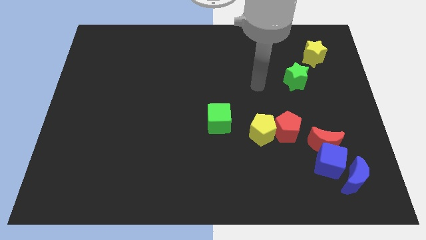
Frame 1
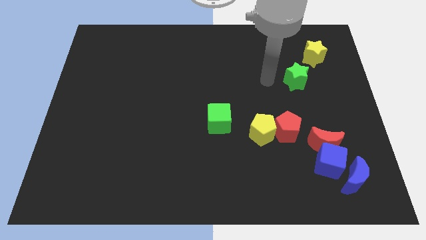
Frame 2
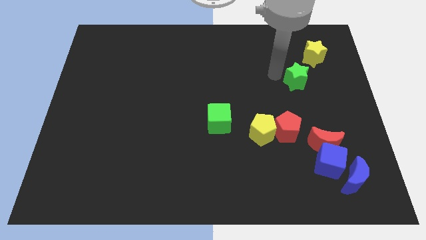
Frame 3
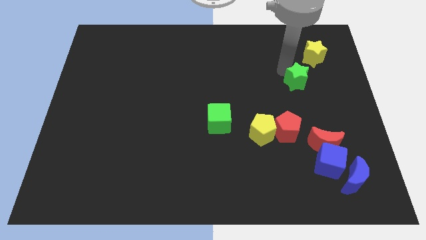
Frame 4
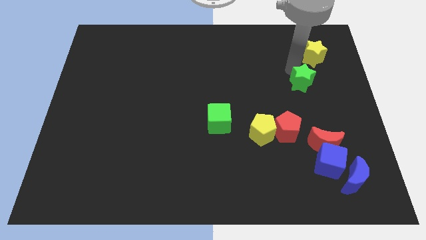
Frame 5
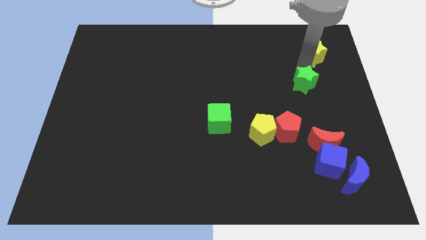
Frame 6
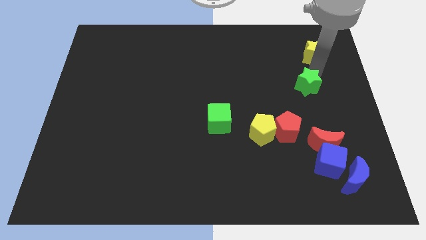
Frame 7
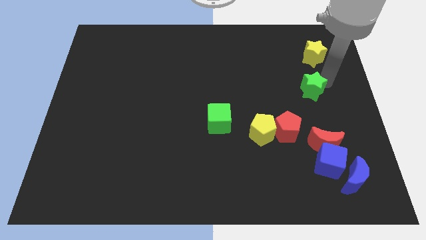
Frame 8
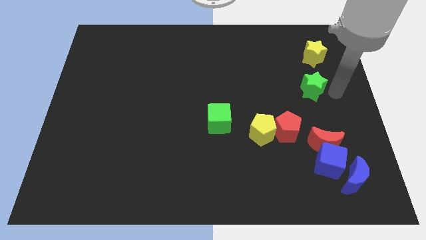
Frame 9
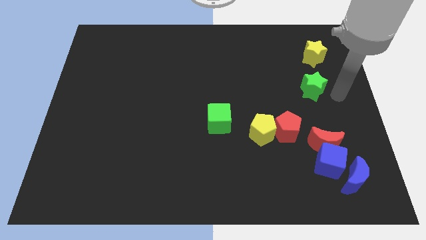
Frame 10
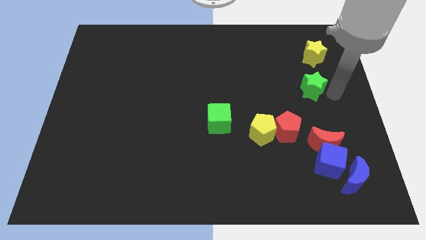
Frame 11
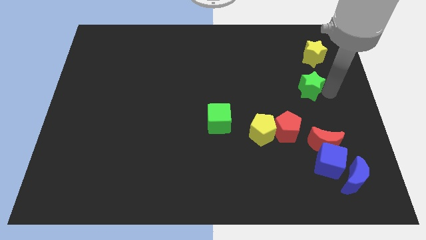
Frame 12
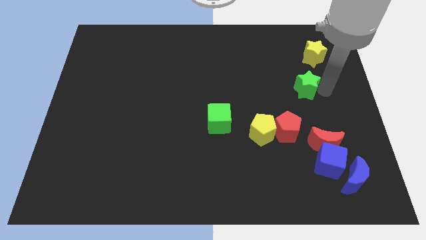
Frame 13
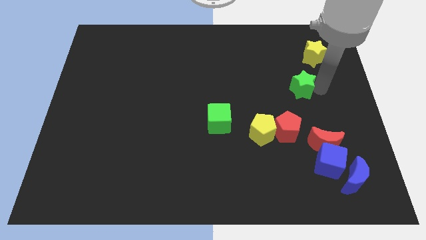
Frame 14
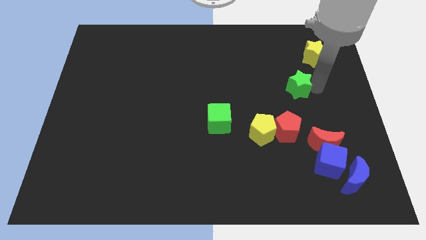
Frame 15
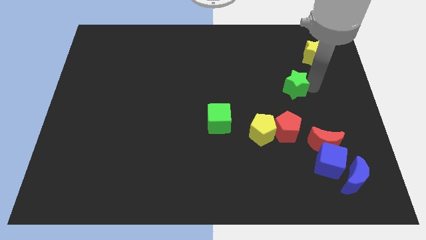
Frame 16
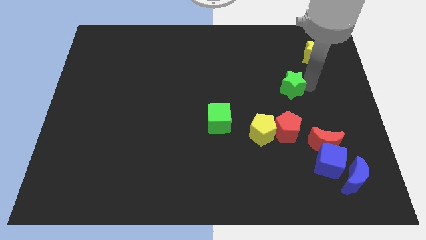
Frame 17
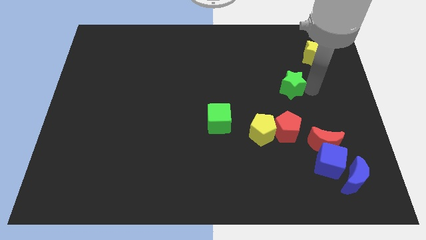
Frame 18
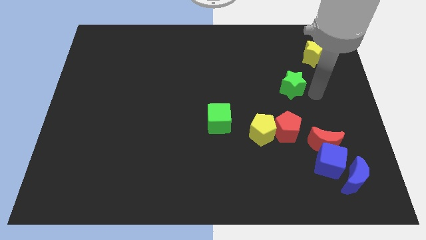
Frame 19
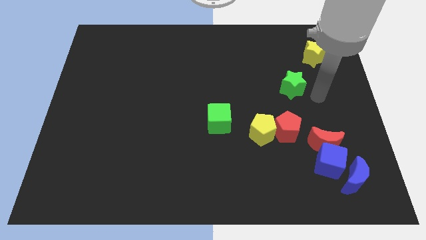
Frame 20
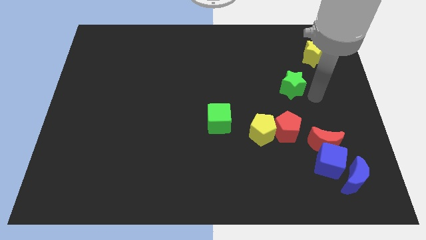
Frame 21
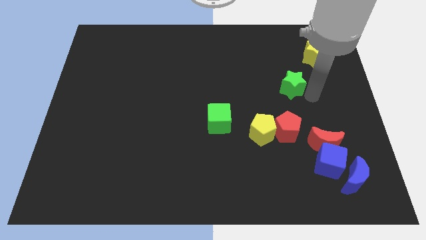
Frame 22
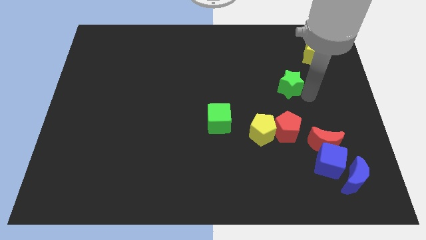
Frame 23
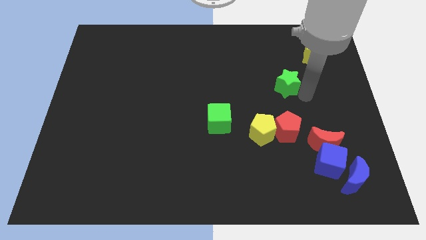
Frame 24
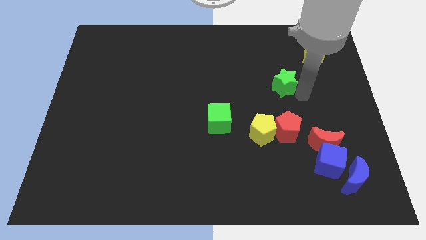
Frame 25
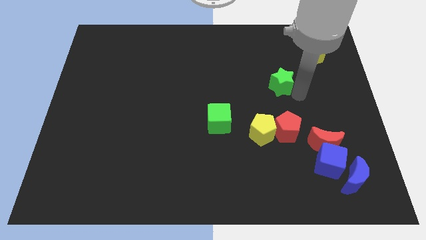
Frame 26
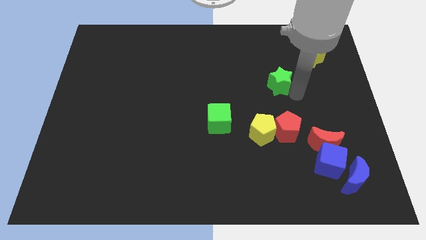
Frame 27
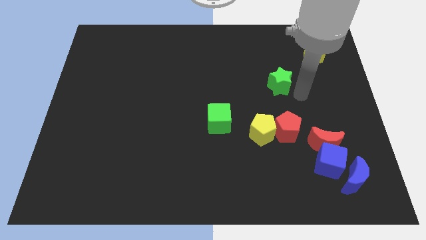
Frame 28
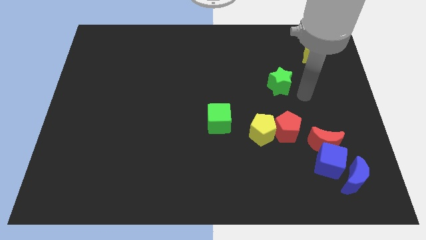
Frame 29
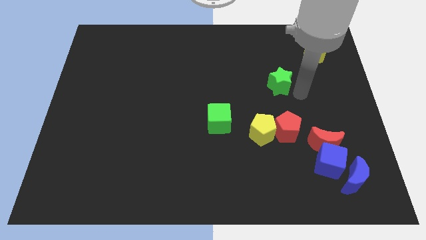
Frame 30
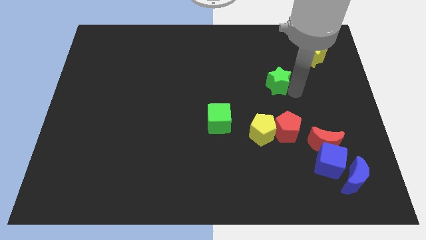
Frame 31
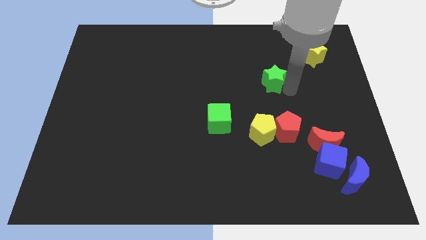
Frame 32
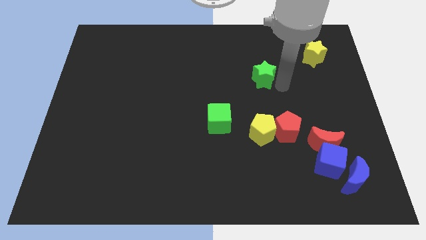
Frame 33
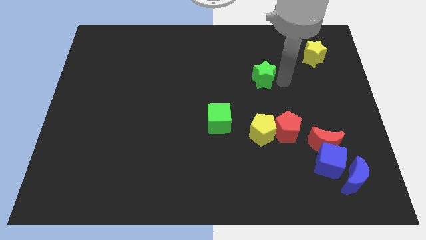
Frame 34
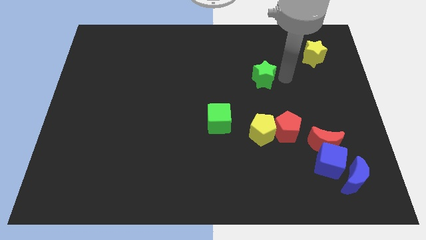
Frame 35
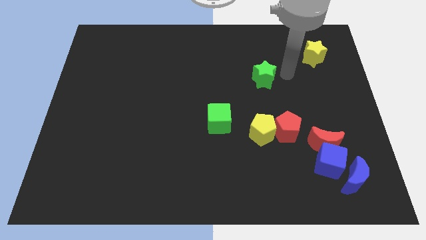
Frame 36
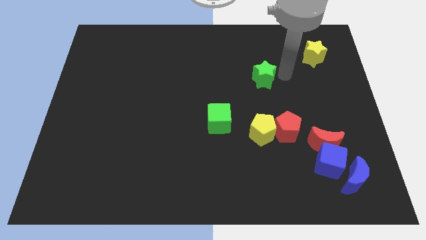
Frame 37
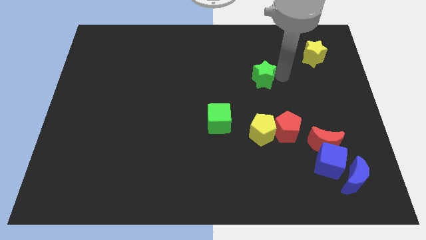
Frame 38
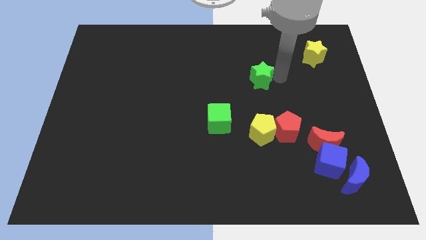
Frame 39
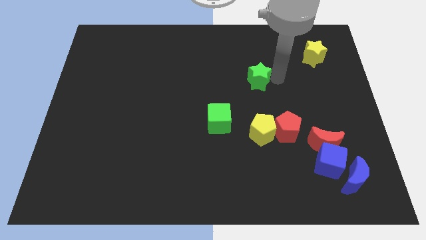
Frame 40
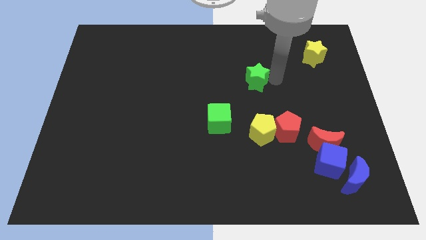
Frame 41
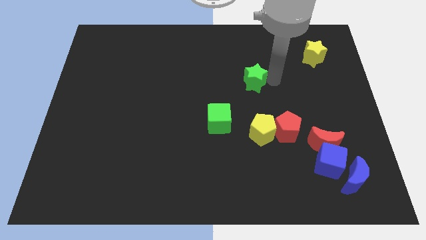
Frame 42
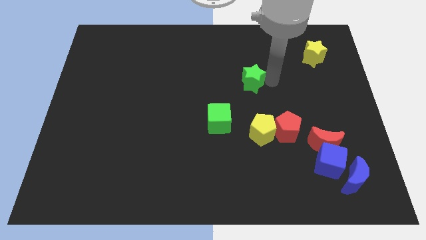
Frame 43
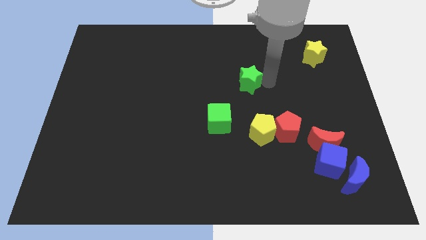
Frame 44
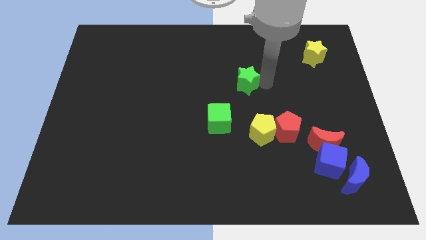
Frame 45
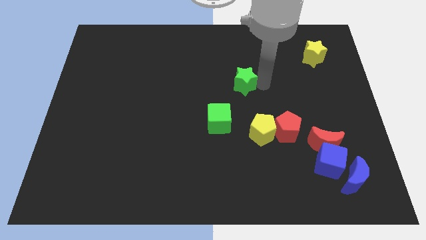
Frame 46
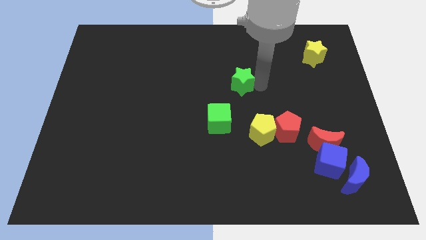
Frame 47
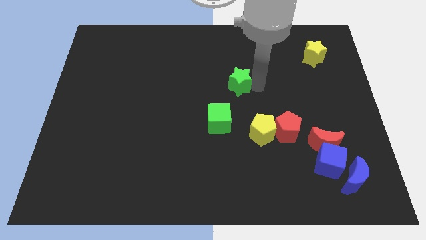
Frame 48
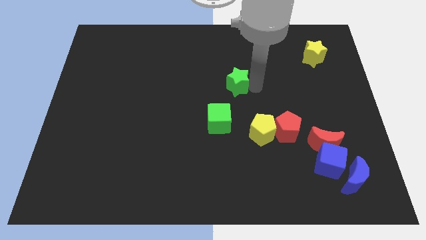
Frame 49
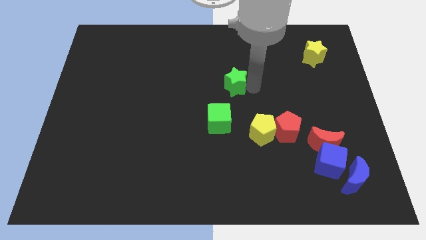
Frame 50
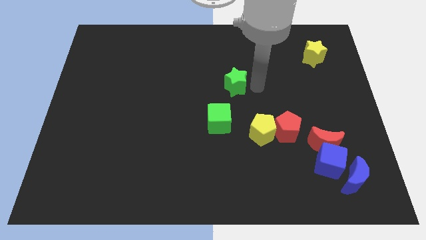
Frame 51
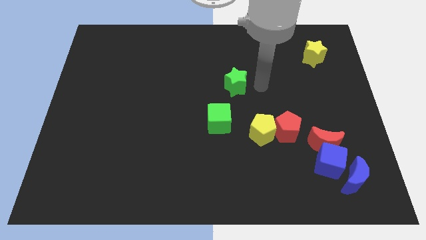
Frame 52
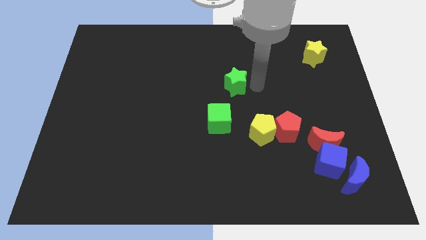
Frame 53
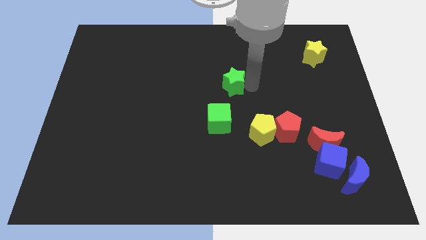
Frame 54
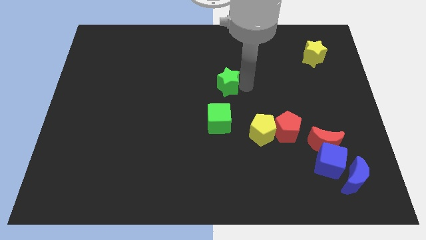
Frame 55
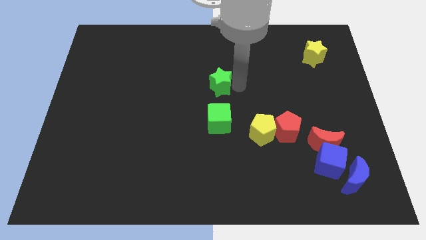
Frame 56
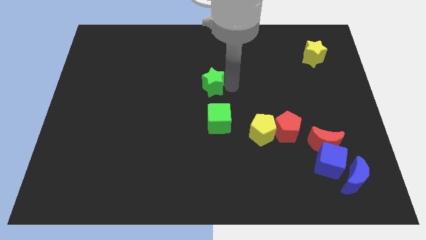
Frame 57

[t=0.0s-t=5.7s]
push the green star to the left

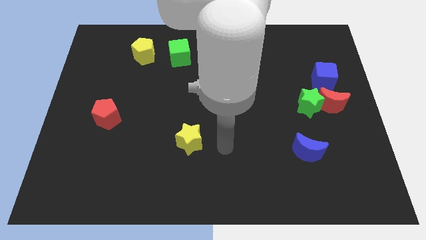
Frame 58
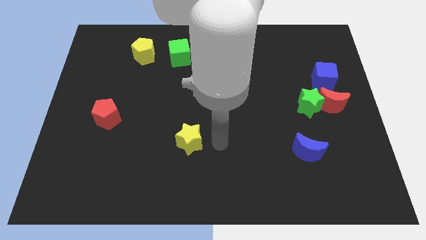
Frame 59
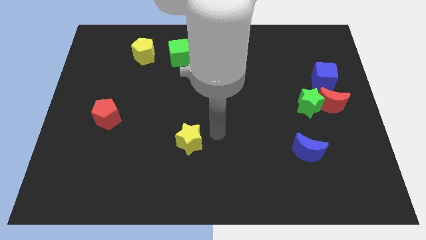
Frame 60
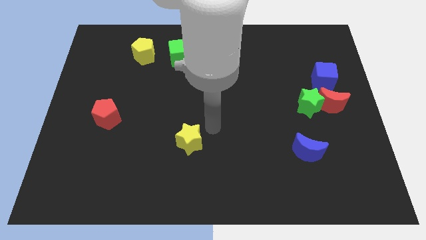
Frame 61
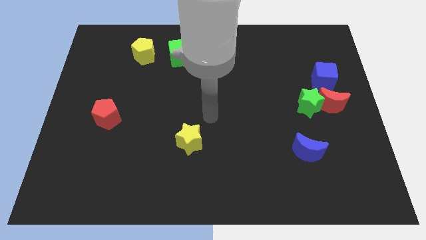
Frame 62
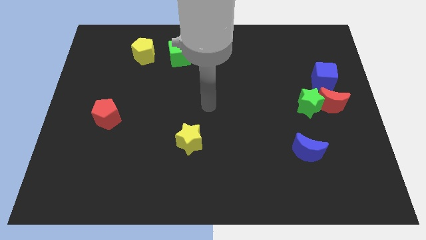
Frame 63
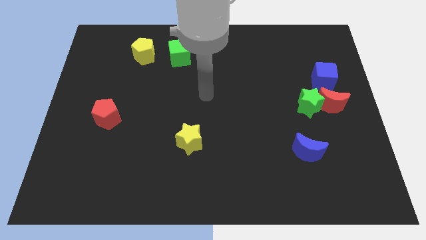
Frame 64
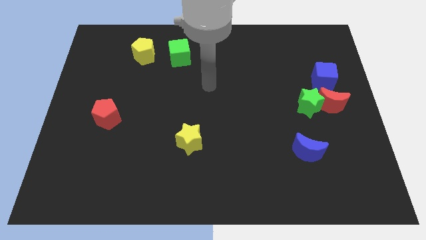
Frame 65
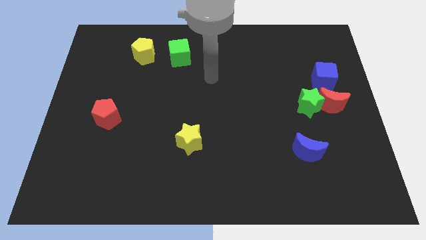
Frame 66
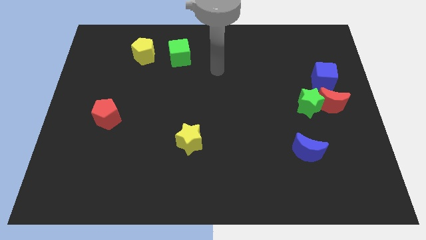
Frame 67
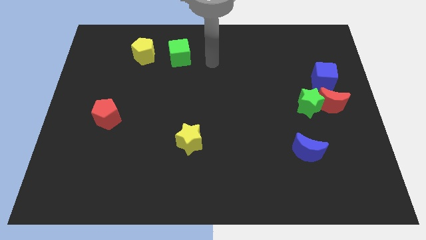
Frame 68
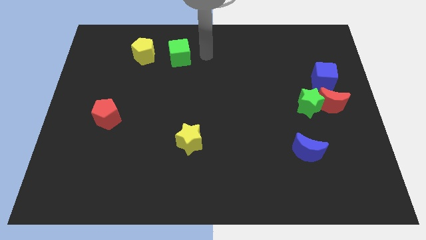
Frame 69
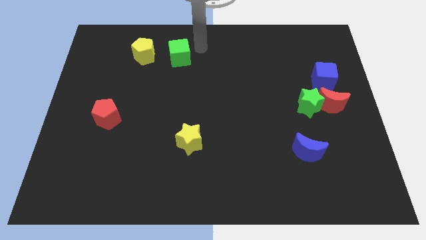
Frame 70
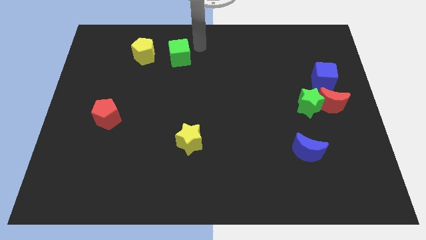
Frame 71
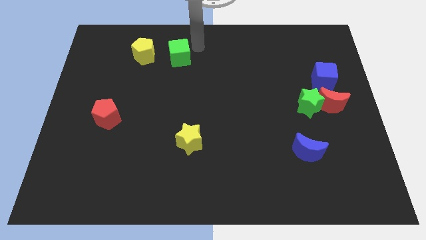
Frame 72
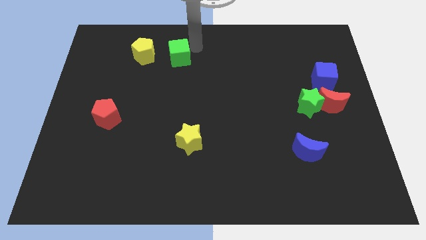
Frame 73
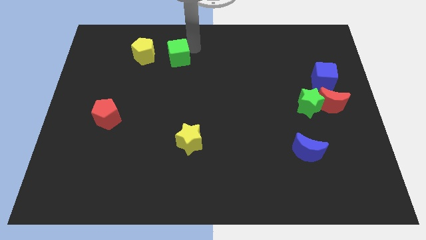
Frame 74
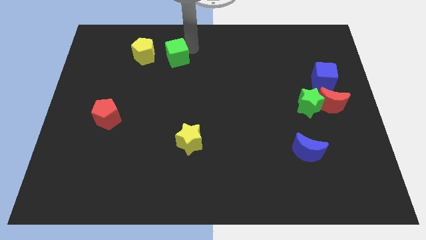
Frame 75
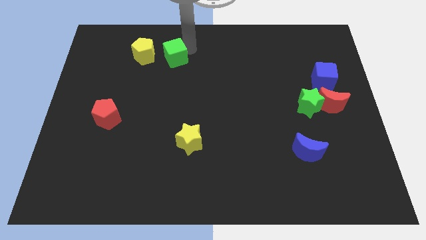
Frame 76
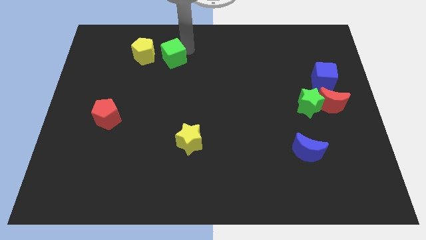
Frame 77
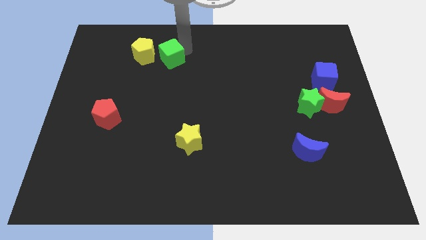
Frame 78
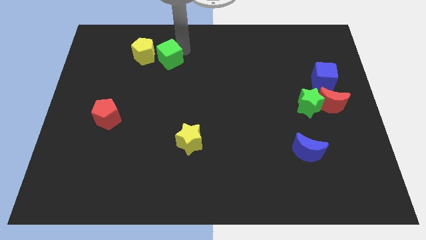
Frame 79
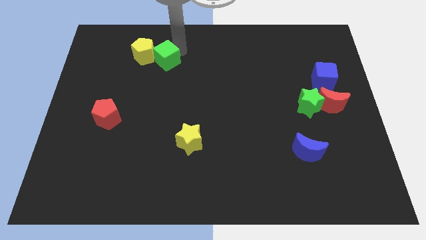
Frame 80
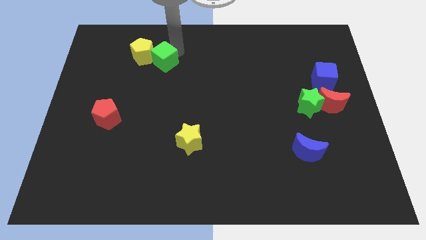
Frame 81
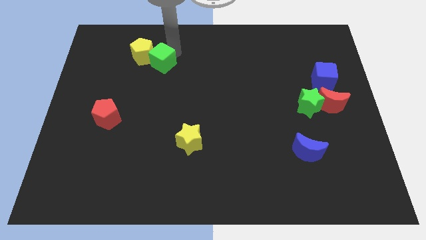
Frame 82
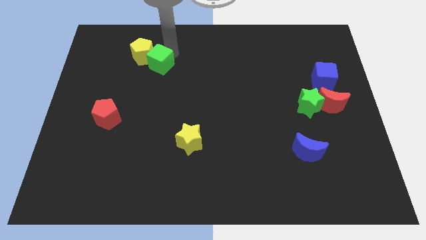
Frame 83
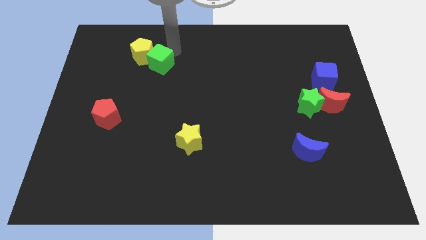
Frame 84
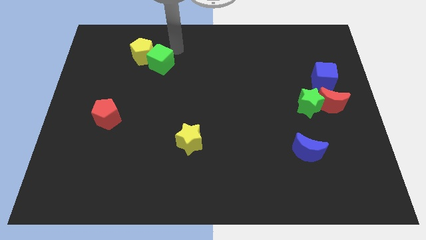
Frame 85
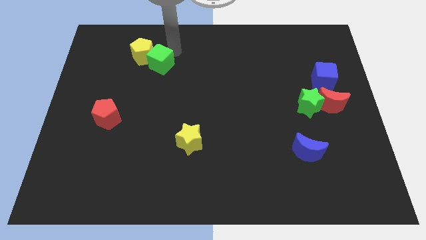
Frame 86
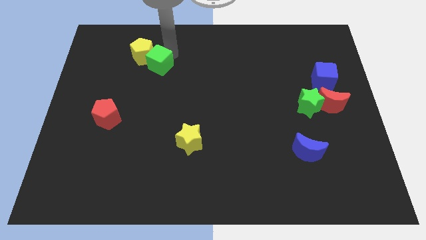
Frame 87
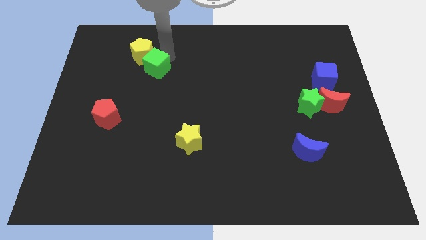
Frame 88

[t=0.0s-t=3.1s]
move the green cube down and left diagonally somewhat
